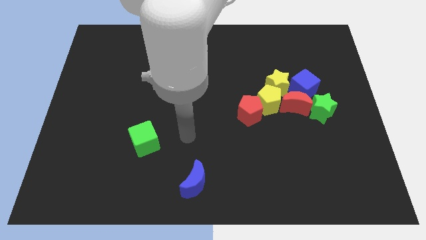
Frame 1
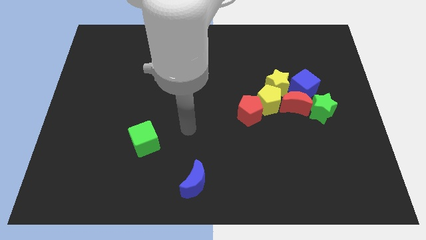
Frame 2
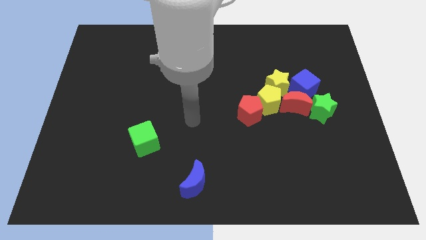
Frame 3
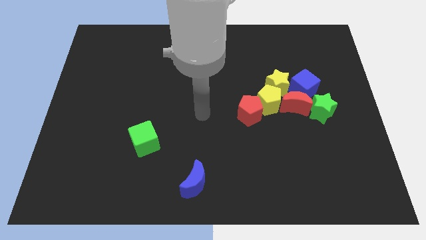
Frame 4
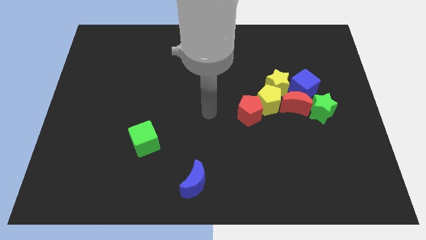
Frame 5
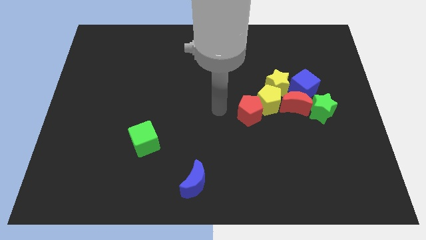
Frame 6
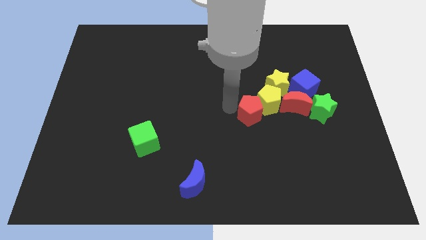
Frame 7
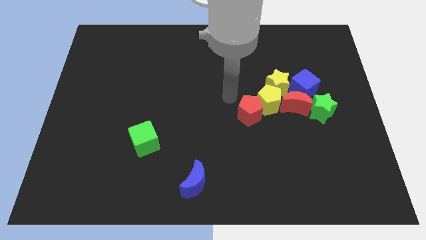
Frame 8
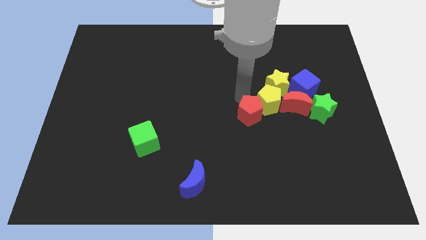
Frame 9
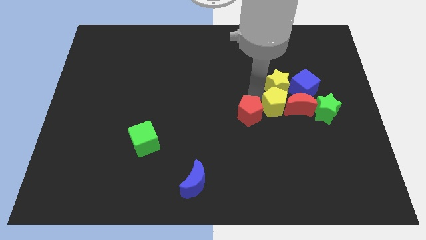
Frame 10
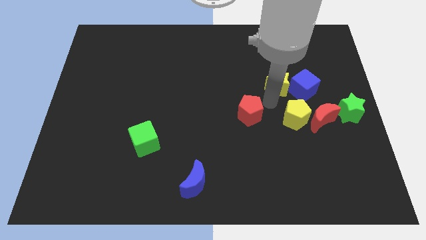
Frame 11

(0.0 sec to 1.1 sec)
move the red pentagon away from the yellow pentagon

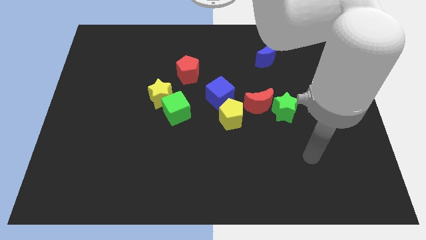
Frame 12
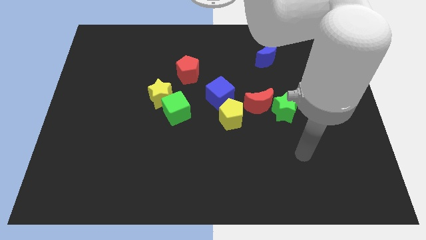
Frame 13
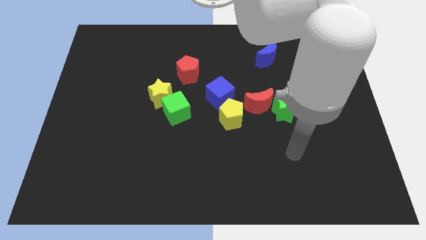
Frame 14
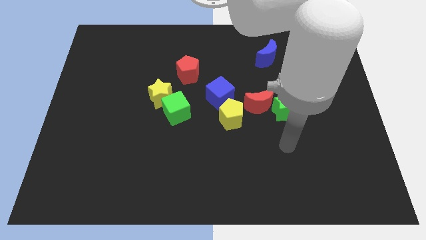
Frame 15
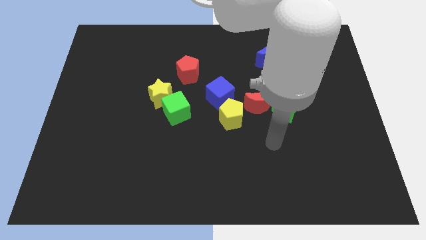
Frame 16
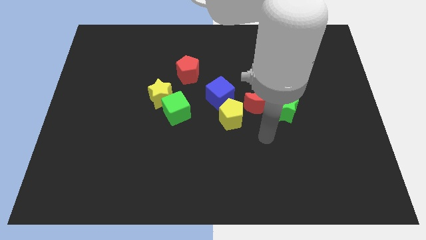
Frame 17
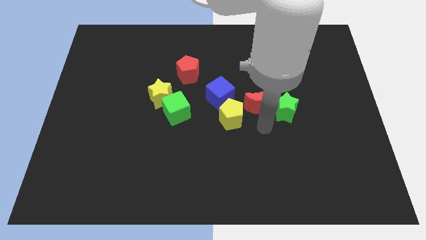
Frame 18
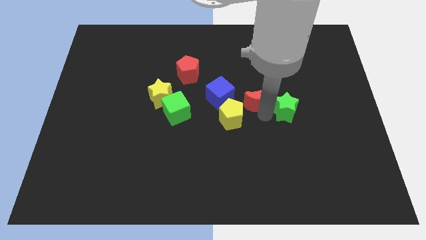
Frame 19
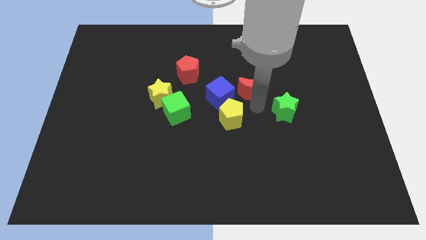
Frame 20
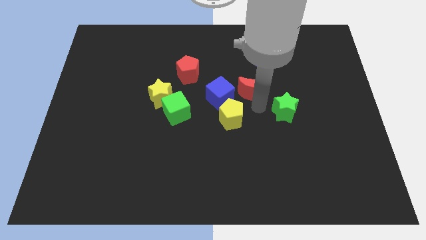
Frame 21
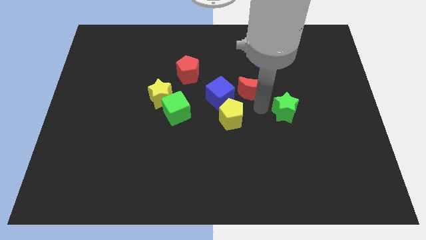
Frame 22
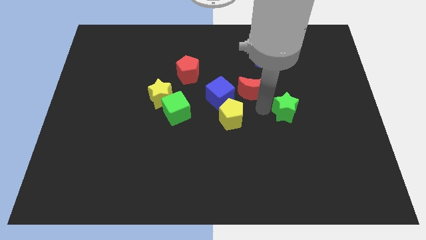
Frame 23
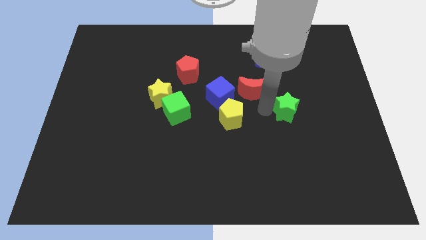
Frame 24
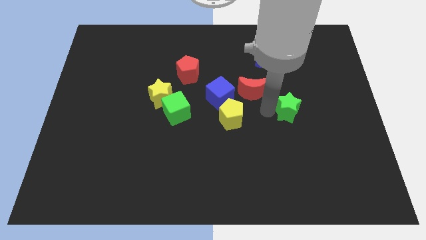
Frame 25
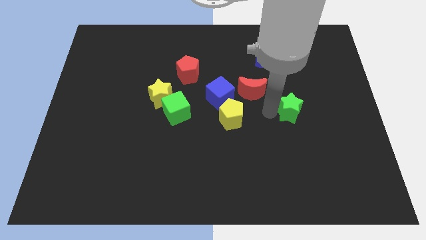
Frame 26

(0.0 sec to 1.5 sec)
pull the green star apart from the red moon

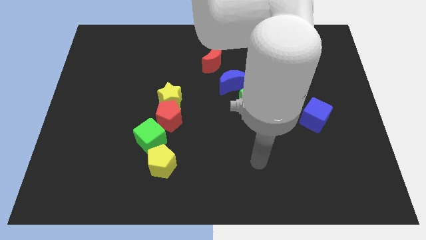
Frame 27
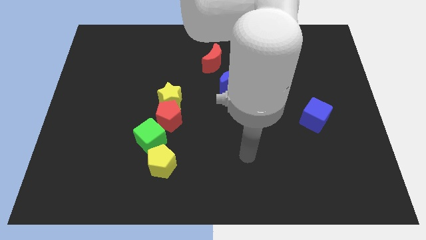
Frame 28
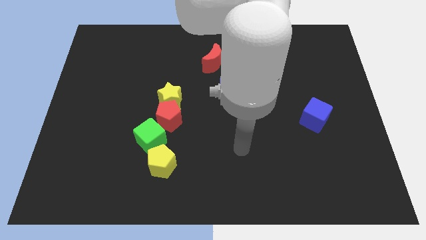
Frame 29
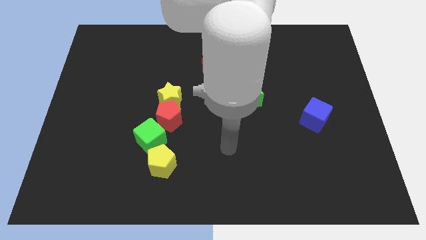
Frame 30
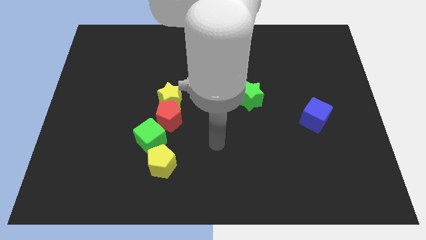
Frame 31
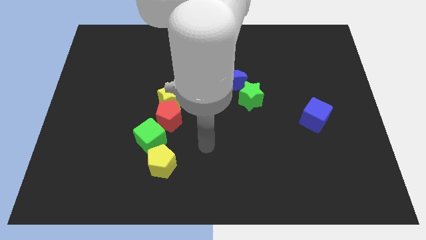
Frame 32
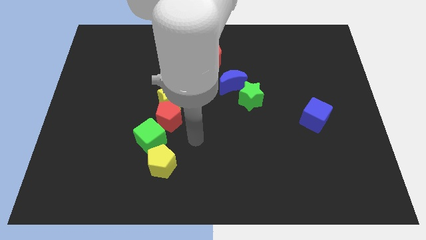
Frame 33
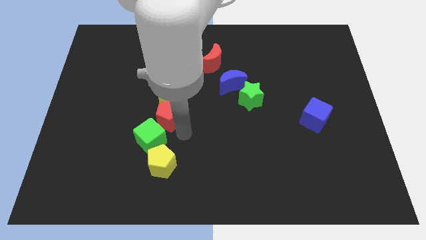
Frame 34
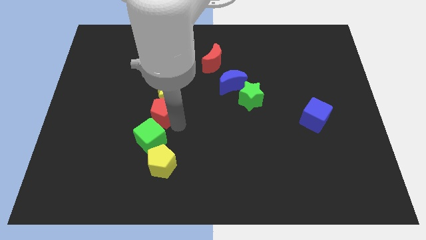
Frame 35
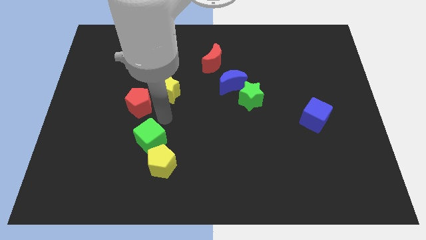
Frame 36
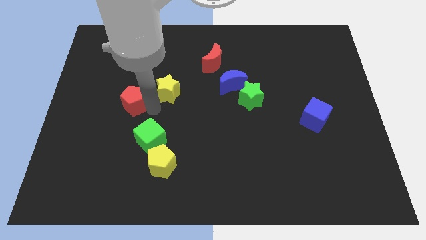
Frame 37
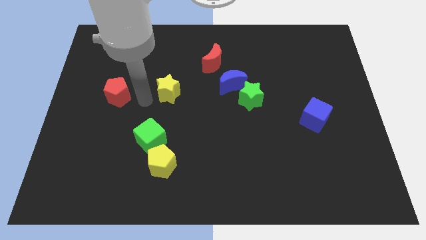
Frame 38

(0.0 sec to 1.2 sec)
separate the yellow star from the red pentagon

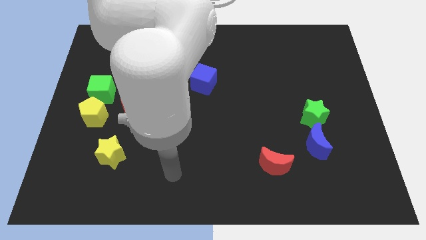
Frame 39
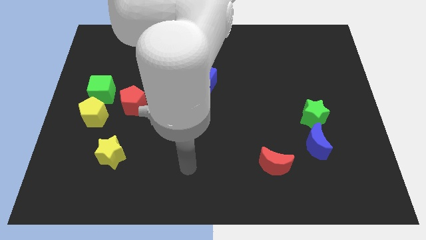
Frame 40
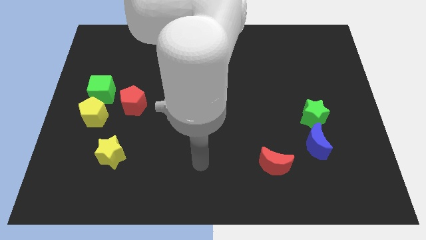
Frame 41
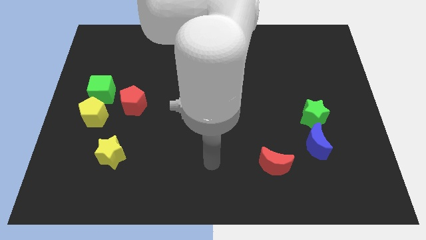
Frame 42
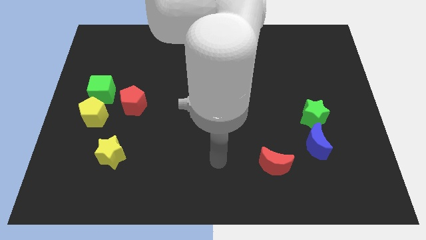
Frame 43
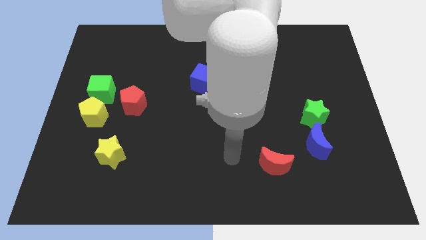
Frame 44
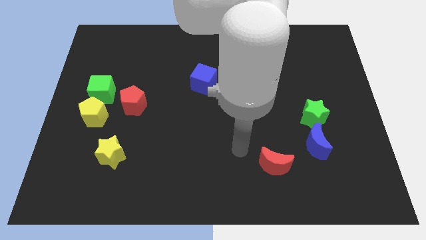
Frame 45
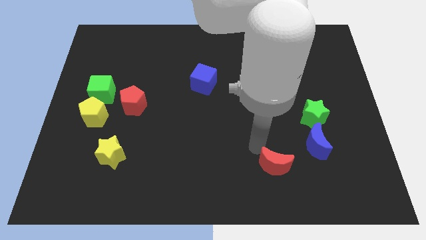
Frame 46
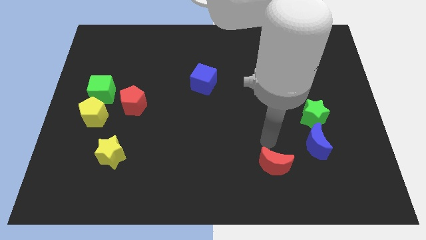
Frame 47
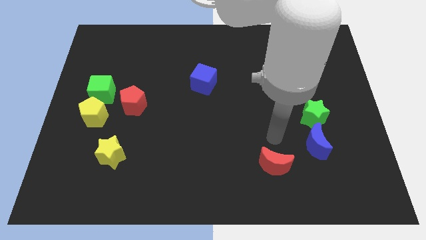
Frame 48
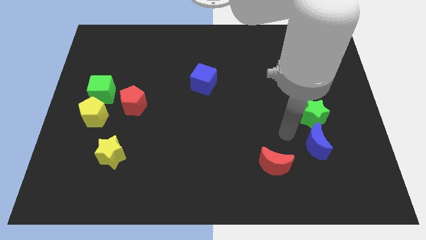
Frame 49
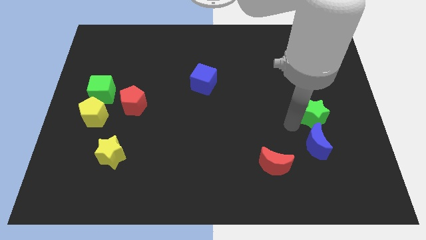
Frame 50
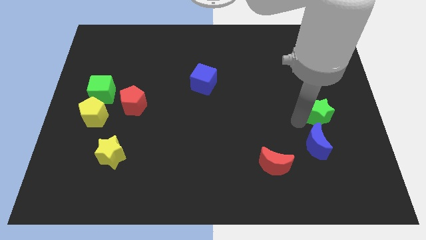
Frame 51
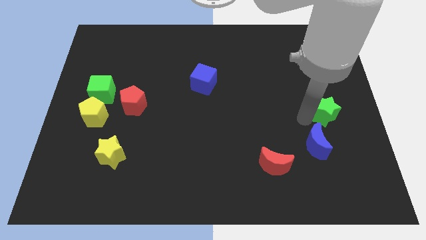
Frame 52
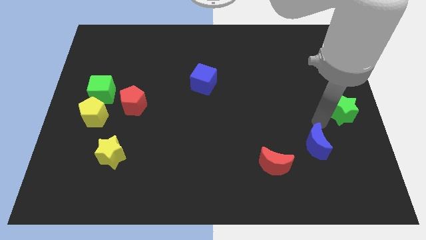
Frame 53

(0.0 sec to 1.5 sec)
separate the blue moon from the green star

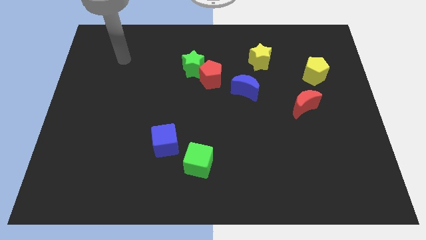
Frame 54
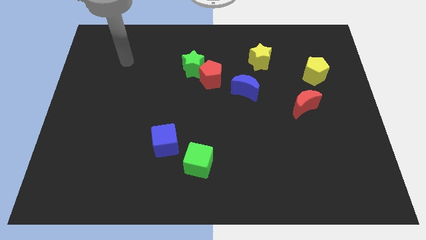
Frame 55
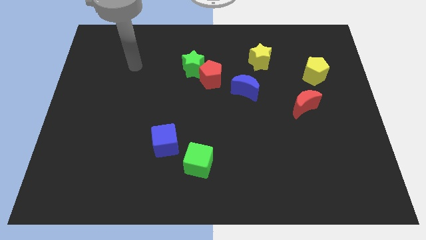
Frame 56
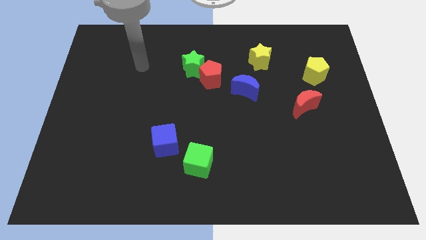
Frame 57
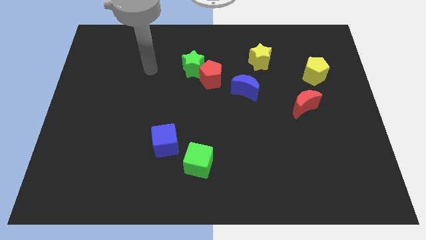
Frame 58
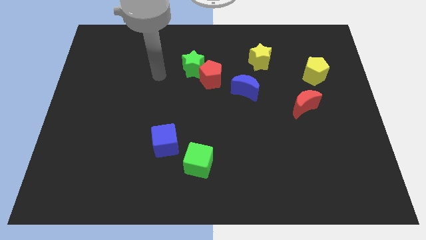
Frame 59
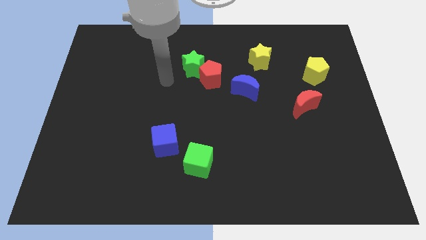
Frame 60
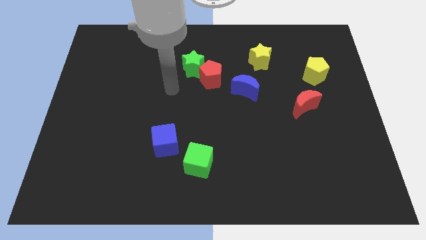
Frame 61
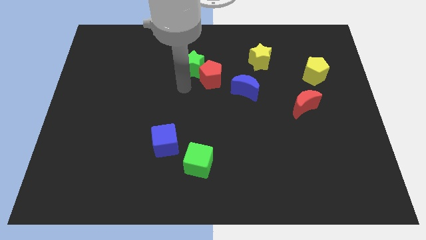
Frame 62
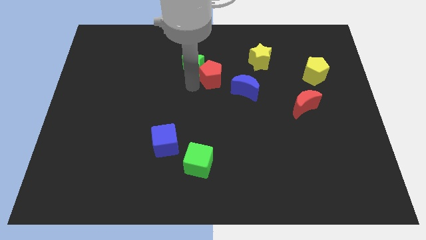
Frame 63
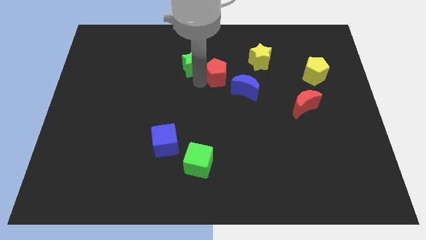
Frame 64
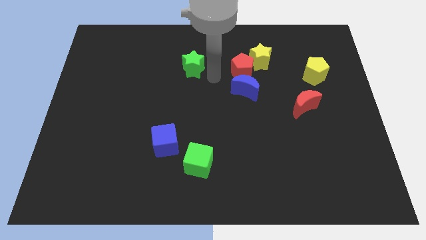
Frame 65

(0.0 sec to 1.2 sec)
move the green star away from the red pentagon

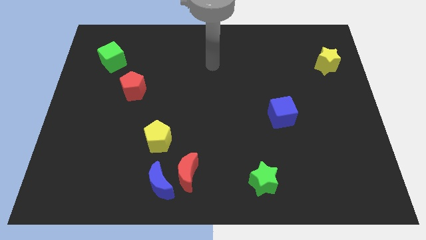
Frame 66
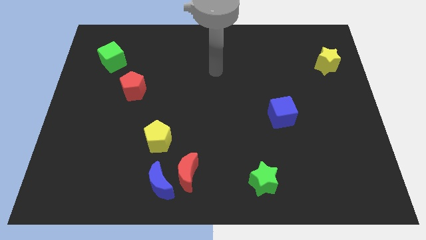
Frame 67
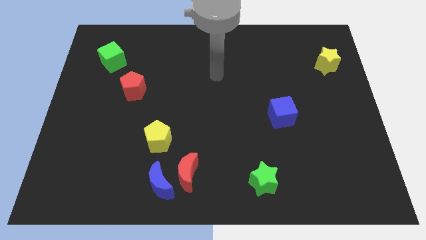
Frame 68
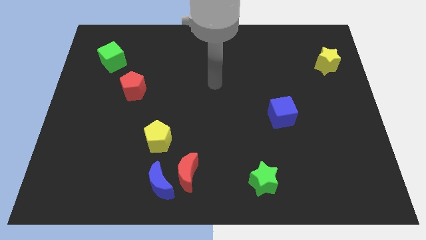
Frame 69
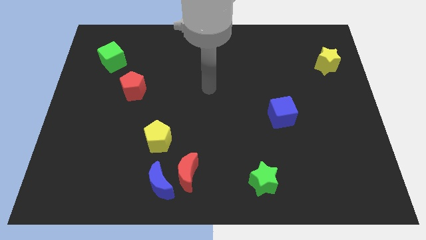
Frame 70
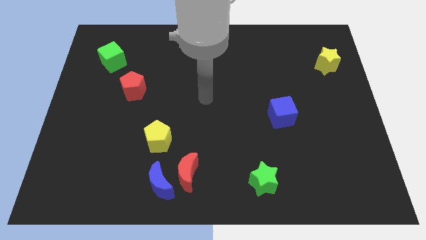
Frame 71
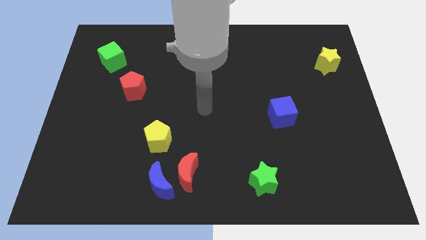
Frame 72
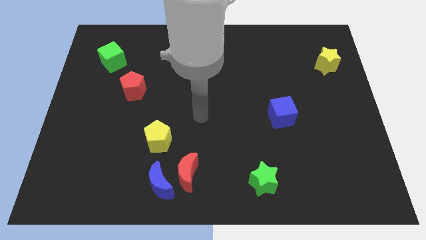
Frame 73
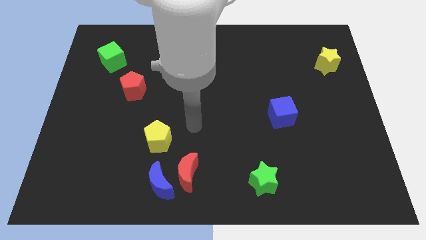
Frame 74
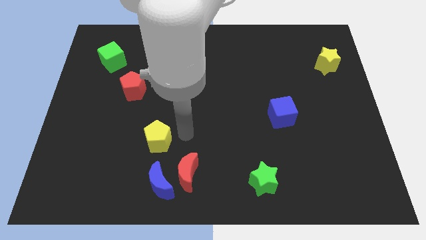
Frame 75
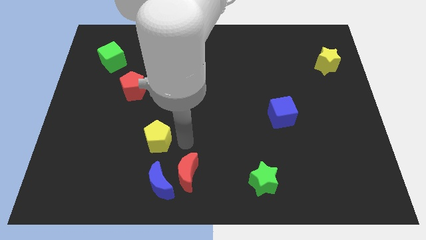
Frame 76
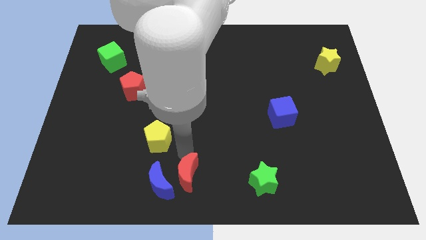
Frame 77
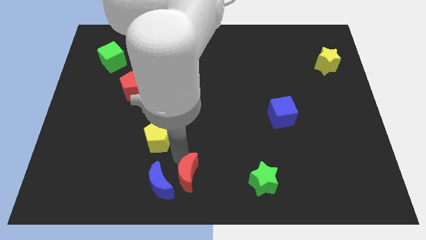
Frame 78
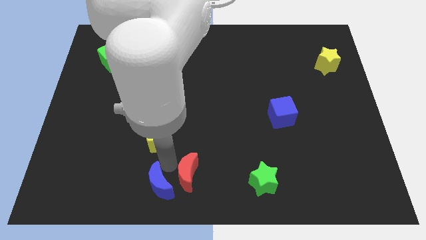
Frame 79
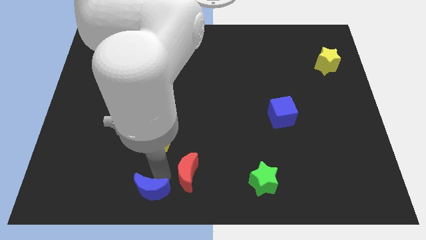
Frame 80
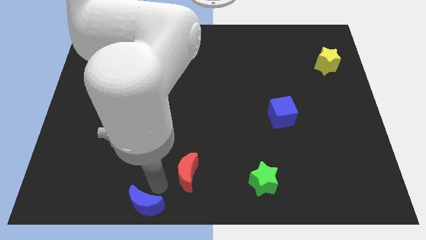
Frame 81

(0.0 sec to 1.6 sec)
pull the red moon apart from the blue moon

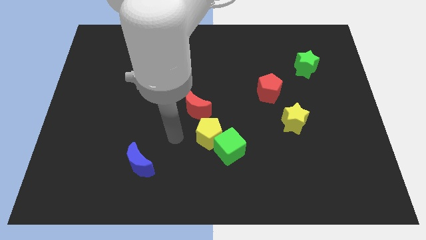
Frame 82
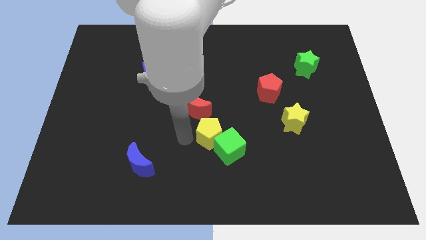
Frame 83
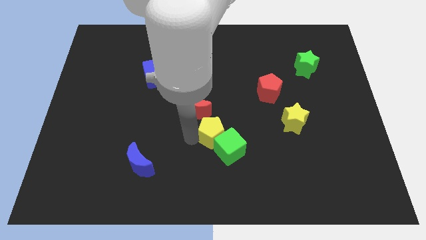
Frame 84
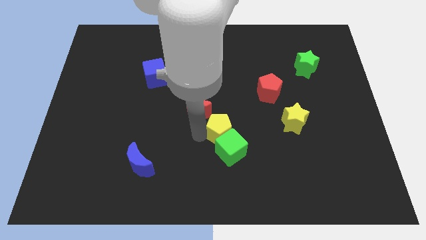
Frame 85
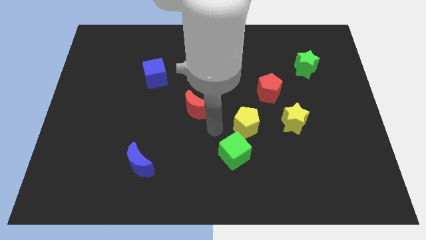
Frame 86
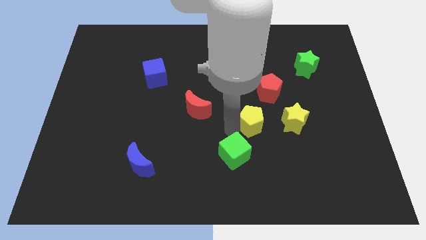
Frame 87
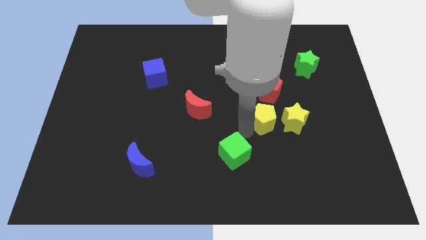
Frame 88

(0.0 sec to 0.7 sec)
move the green cube away from the yellow pentagon

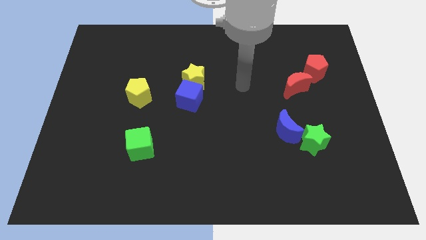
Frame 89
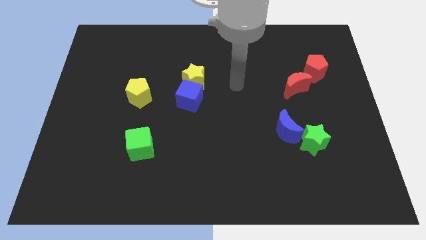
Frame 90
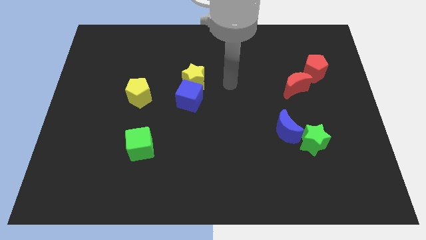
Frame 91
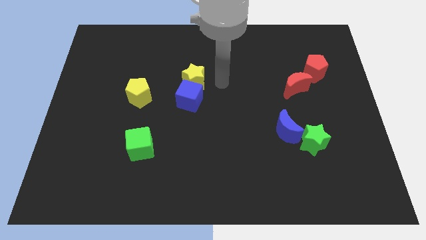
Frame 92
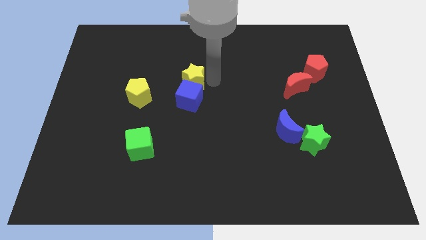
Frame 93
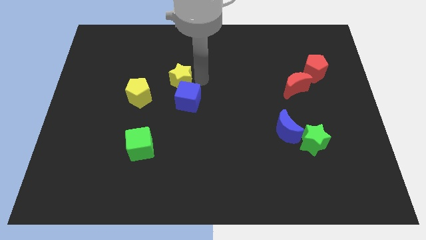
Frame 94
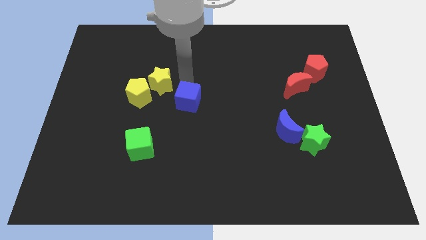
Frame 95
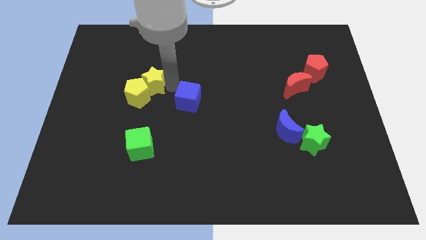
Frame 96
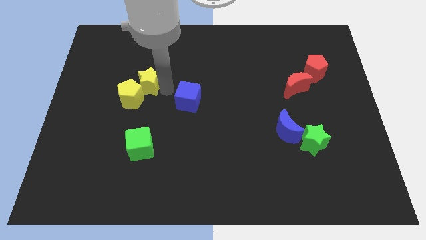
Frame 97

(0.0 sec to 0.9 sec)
move the blue cube away from the yellow star
